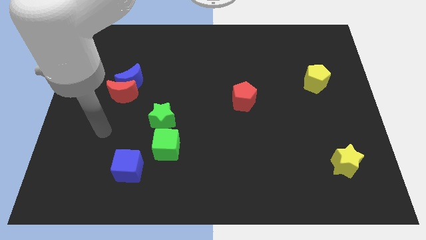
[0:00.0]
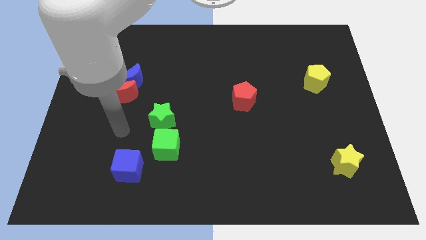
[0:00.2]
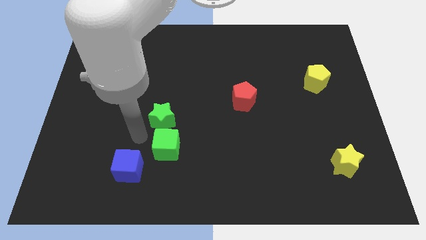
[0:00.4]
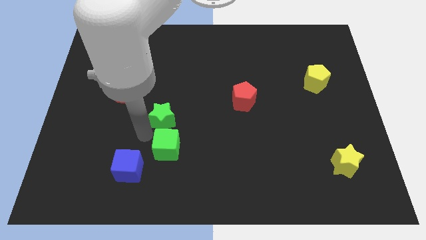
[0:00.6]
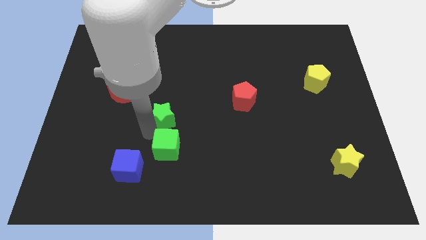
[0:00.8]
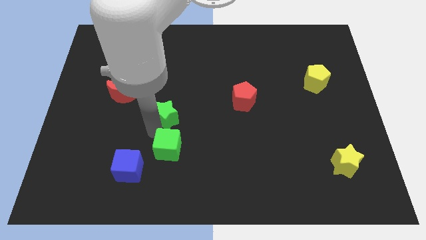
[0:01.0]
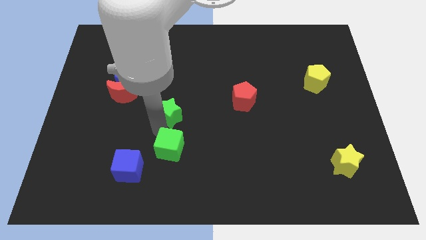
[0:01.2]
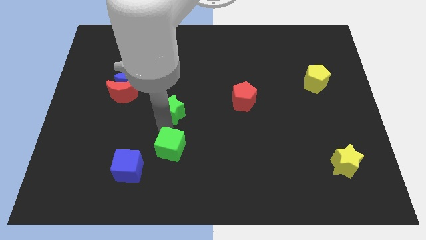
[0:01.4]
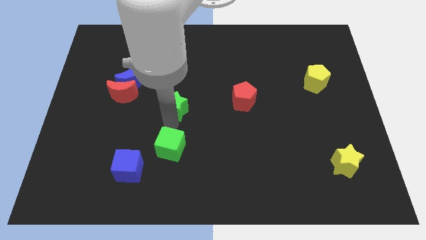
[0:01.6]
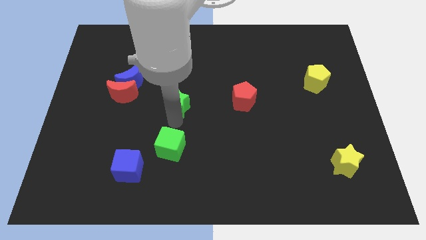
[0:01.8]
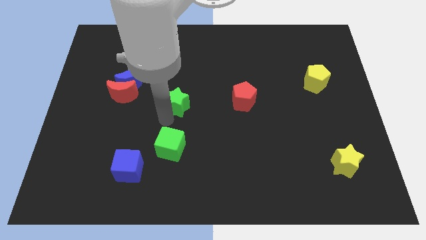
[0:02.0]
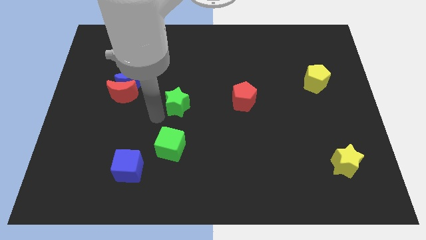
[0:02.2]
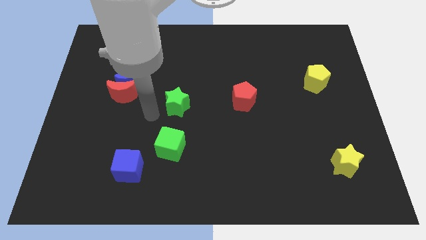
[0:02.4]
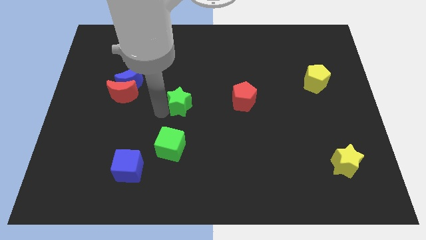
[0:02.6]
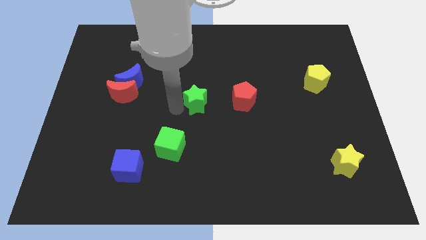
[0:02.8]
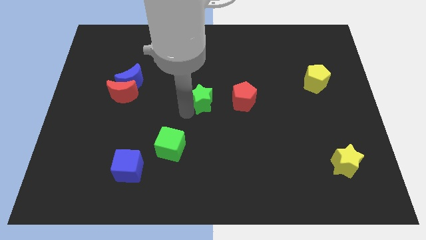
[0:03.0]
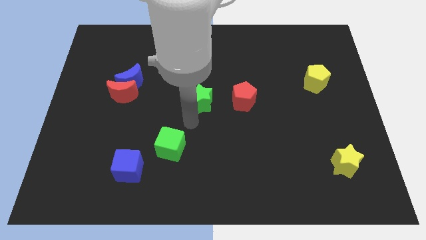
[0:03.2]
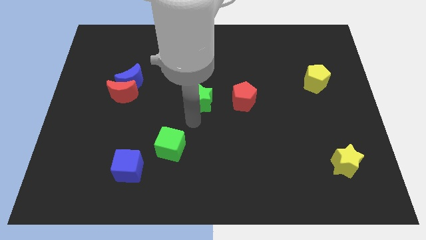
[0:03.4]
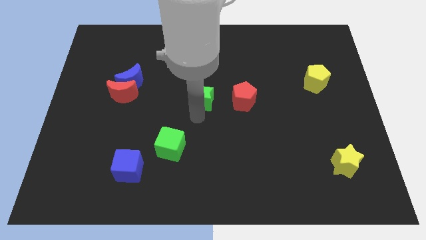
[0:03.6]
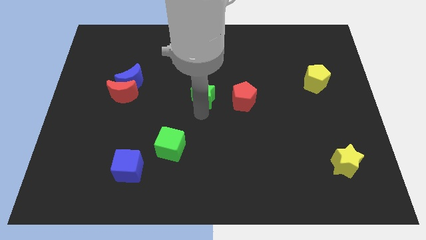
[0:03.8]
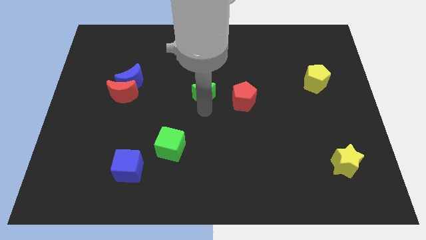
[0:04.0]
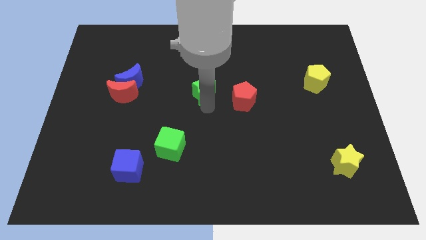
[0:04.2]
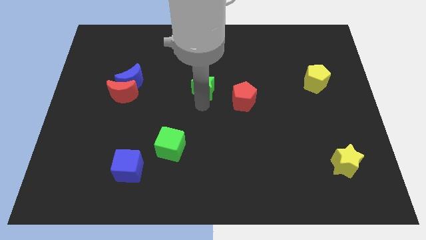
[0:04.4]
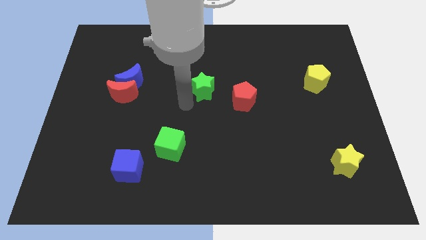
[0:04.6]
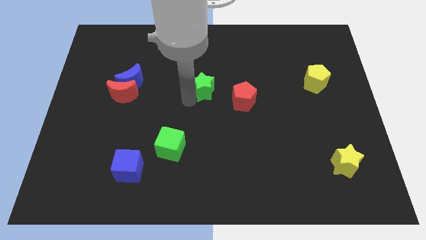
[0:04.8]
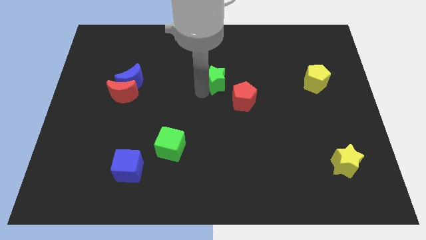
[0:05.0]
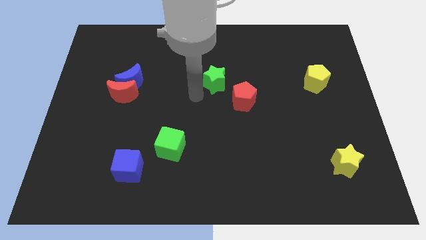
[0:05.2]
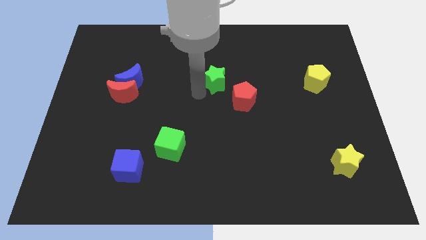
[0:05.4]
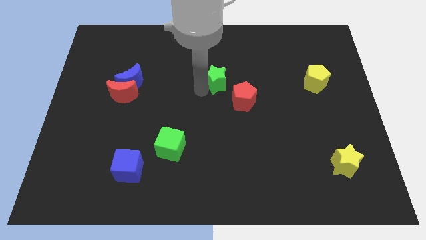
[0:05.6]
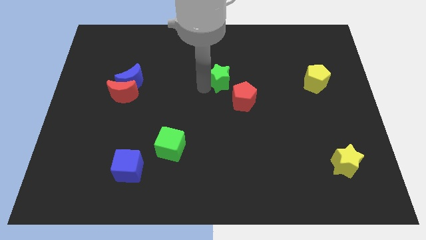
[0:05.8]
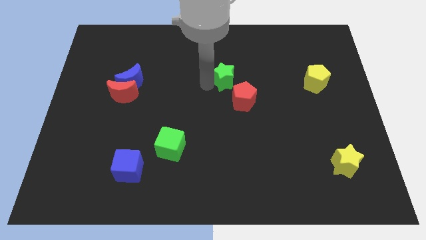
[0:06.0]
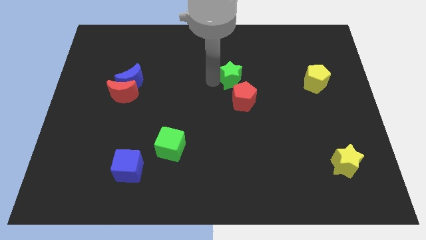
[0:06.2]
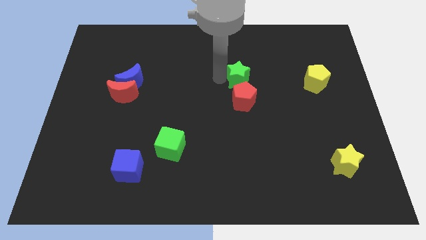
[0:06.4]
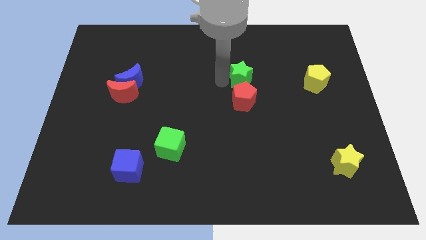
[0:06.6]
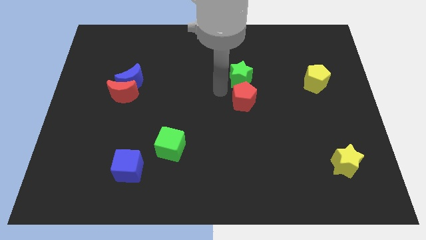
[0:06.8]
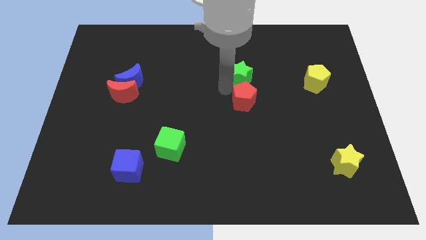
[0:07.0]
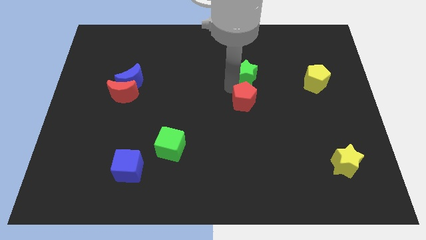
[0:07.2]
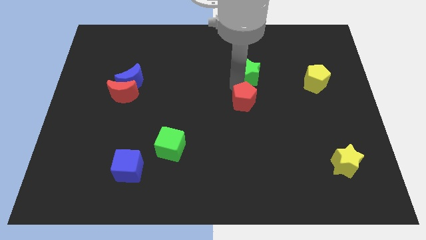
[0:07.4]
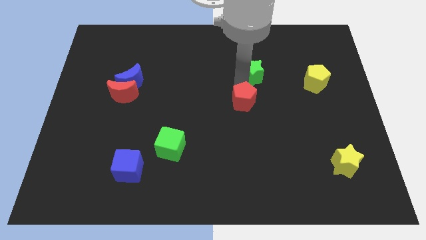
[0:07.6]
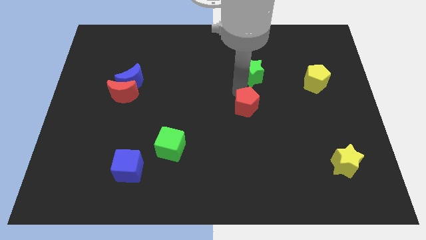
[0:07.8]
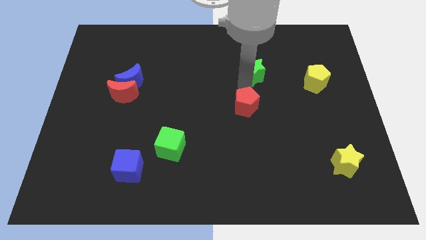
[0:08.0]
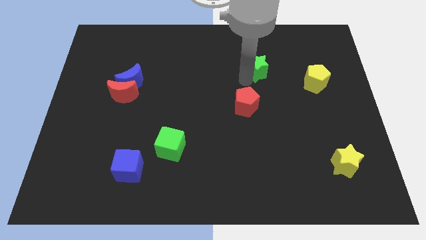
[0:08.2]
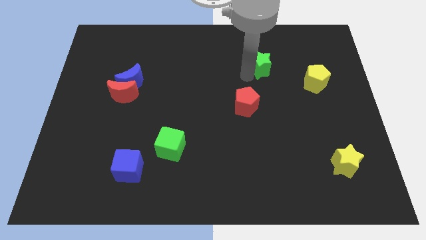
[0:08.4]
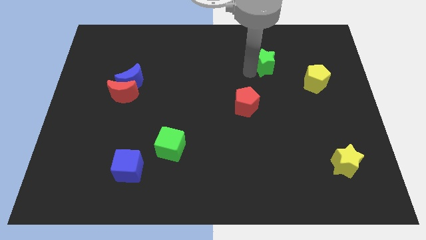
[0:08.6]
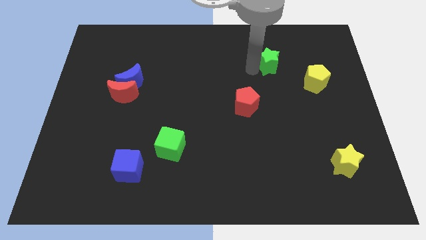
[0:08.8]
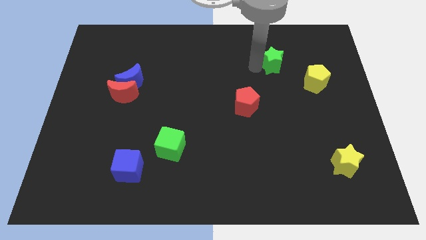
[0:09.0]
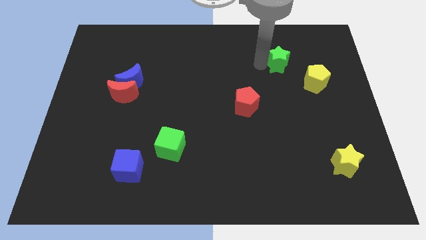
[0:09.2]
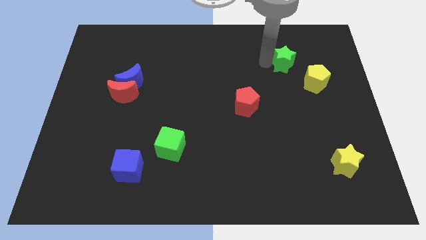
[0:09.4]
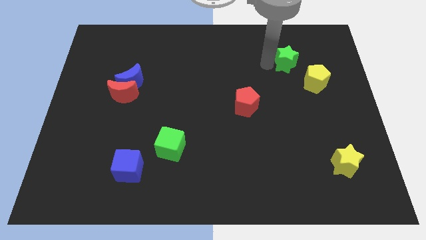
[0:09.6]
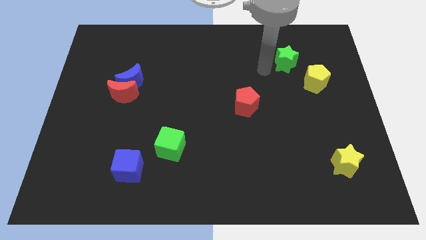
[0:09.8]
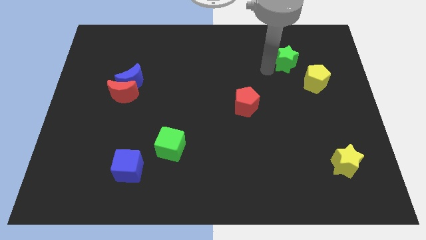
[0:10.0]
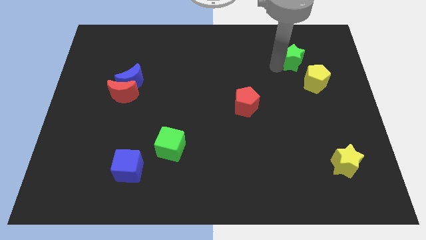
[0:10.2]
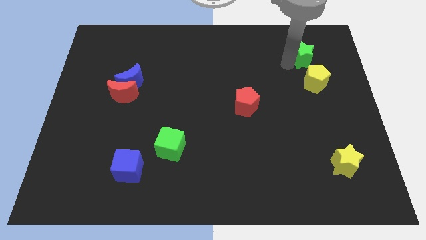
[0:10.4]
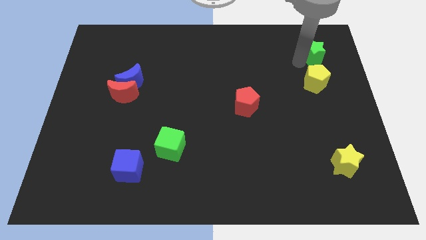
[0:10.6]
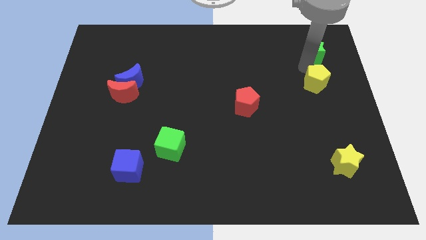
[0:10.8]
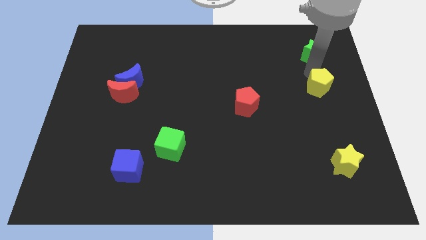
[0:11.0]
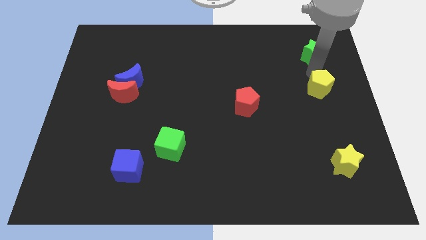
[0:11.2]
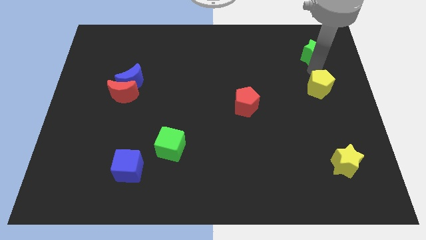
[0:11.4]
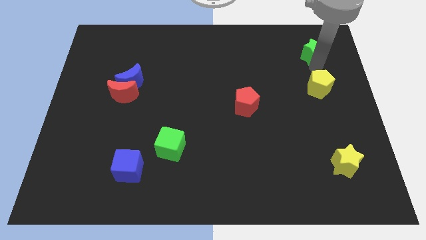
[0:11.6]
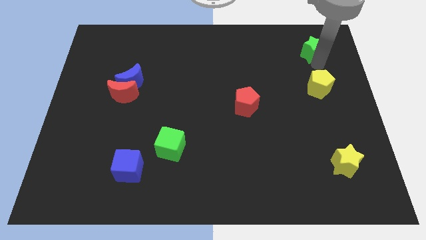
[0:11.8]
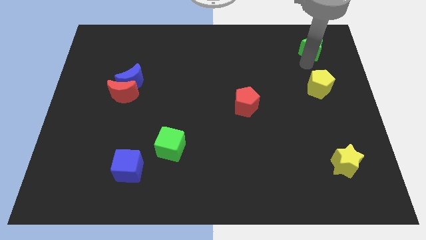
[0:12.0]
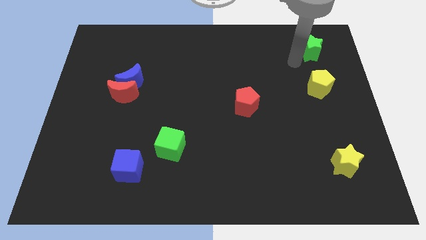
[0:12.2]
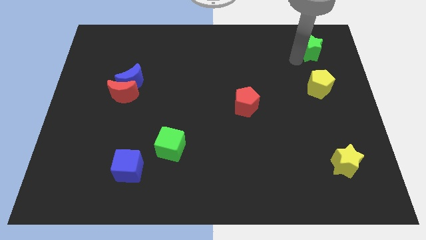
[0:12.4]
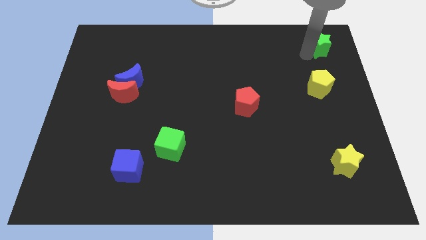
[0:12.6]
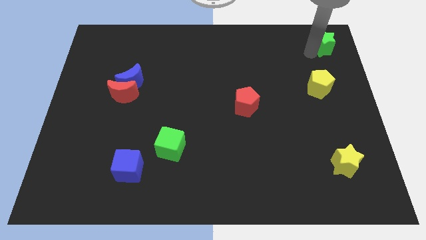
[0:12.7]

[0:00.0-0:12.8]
move the green star to the upper right corner

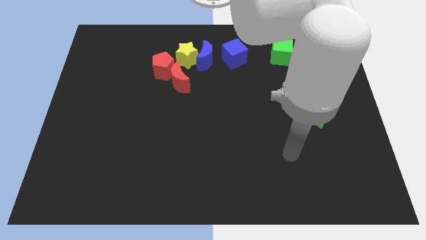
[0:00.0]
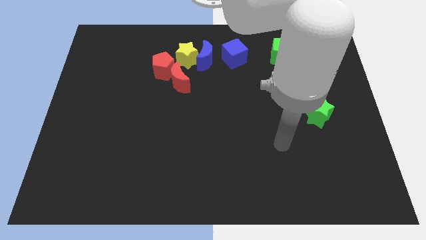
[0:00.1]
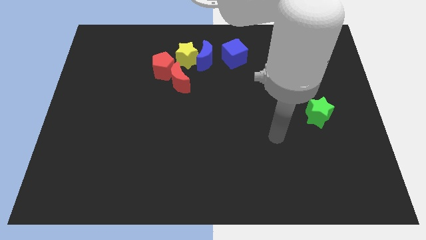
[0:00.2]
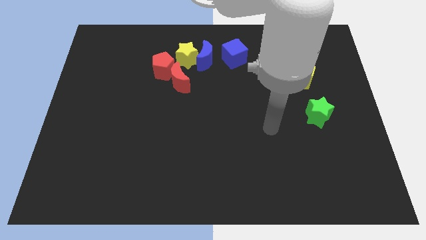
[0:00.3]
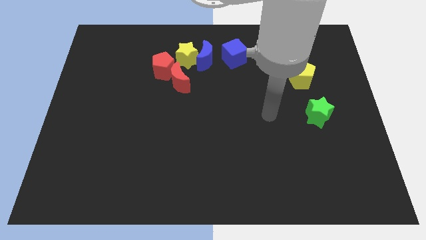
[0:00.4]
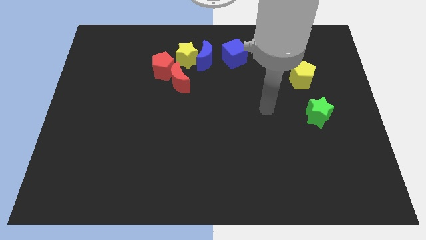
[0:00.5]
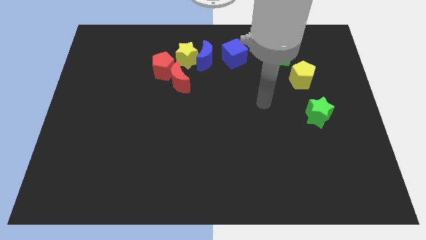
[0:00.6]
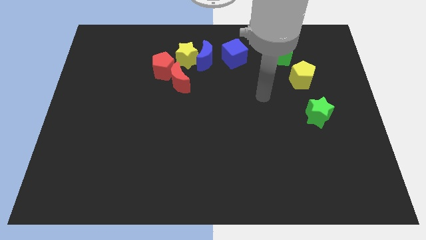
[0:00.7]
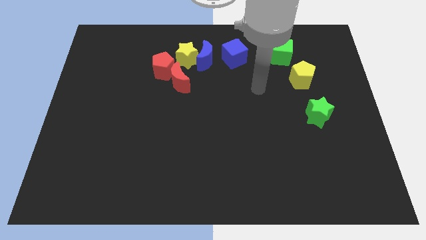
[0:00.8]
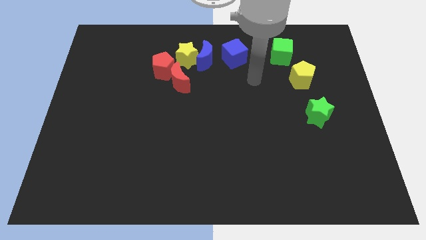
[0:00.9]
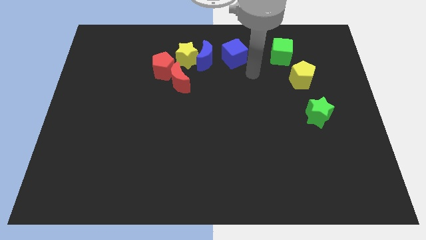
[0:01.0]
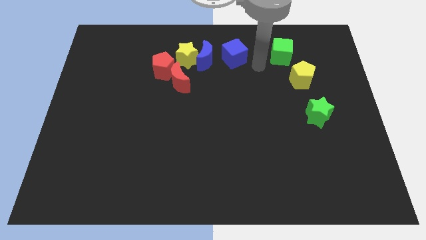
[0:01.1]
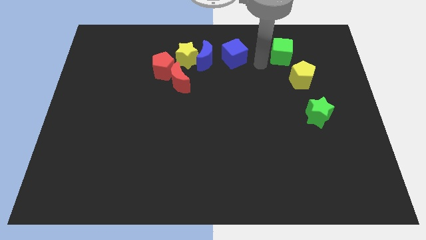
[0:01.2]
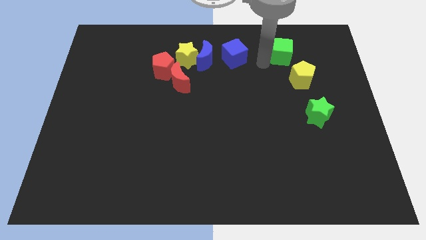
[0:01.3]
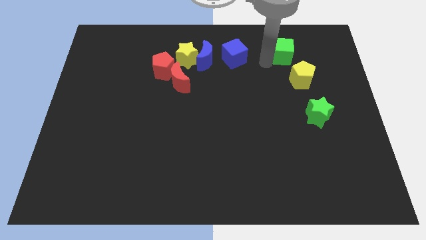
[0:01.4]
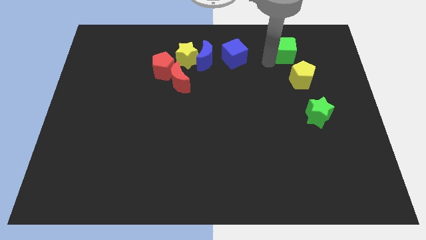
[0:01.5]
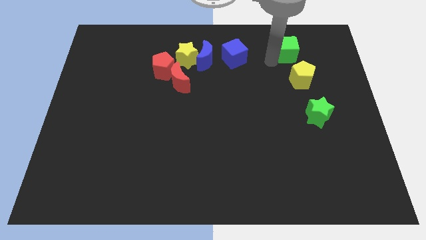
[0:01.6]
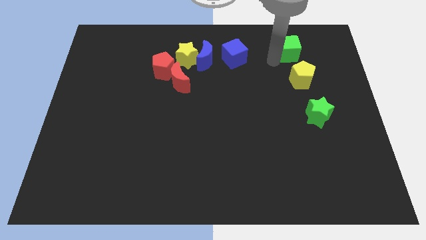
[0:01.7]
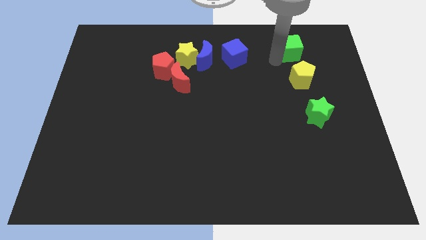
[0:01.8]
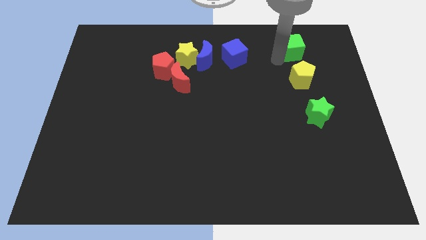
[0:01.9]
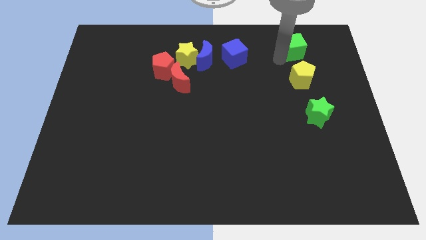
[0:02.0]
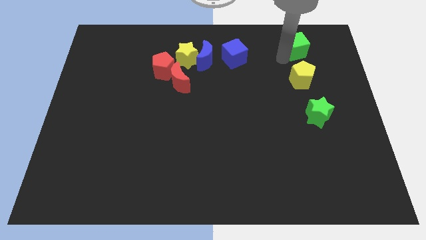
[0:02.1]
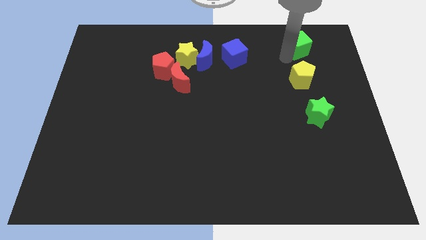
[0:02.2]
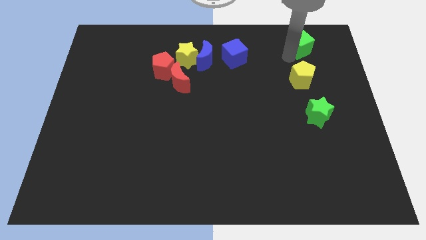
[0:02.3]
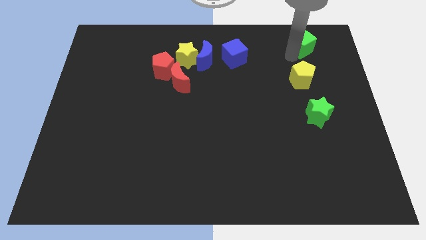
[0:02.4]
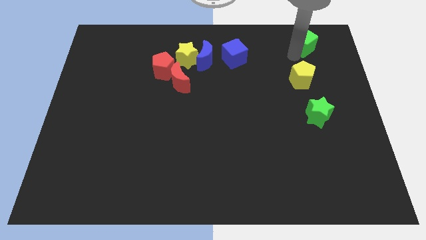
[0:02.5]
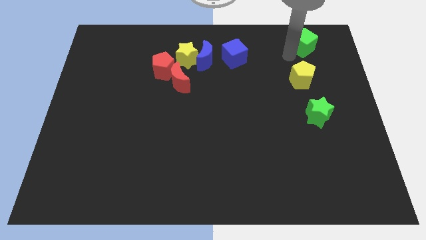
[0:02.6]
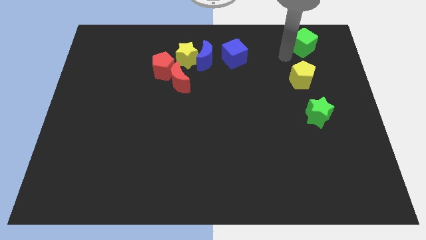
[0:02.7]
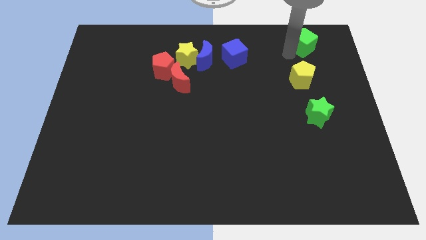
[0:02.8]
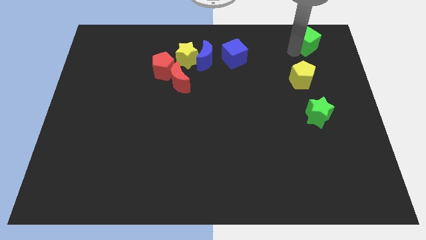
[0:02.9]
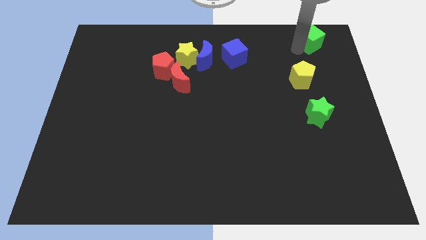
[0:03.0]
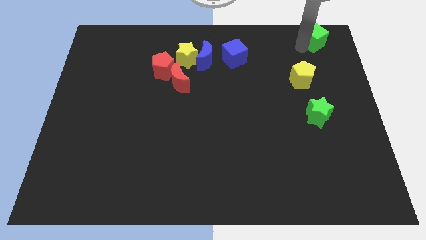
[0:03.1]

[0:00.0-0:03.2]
move the green cube to the top right corner
